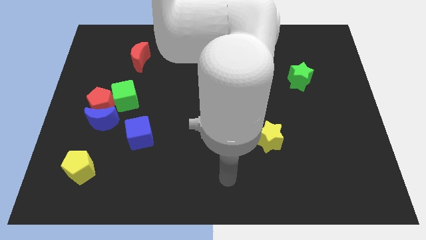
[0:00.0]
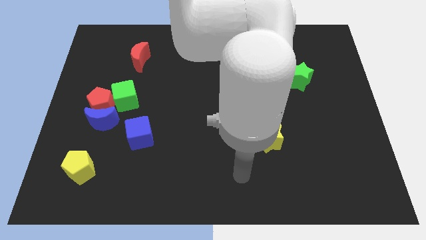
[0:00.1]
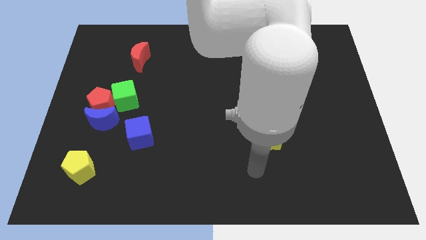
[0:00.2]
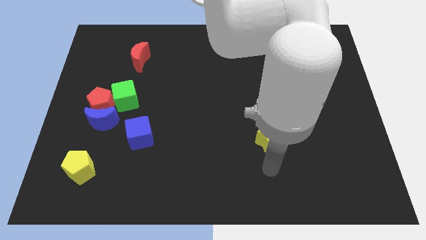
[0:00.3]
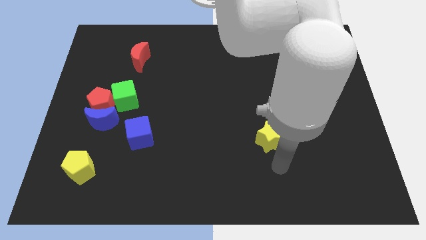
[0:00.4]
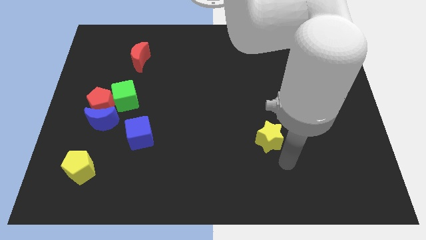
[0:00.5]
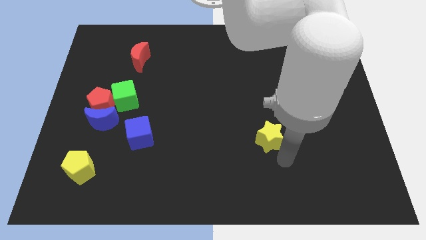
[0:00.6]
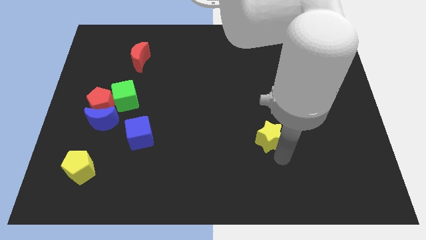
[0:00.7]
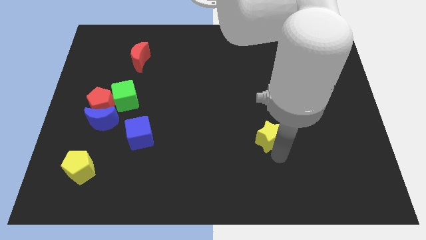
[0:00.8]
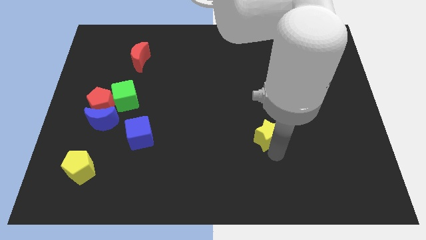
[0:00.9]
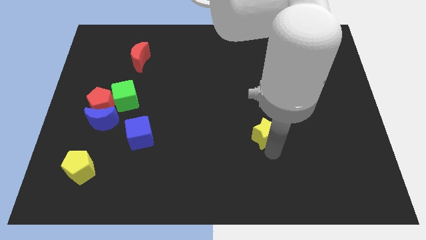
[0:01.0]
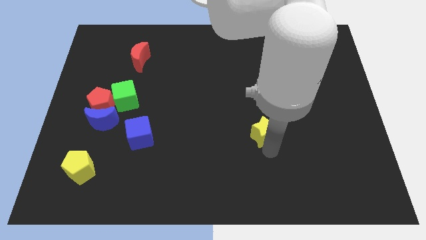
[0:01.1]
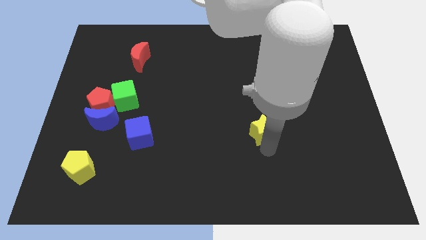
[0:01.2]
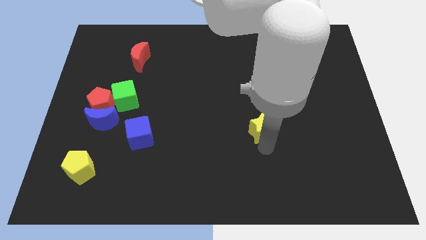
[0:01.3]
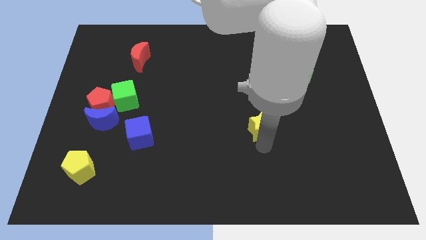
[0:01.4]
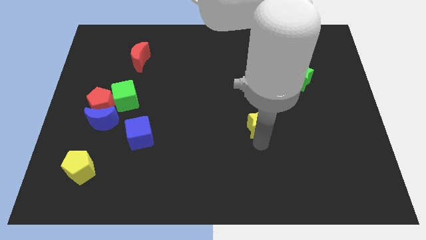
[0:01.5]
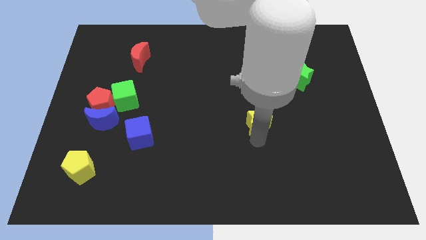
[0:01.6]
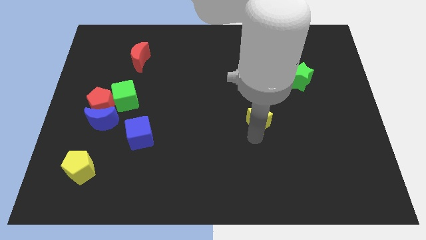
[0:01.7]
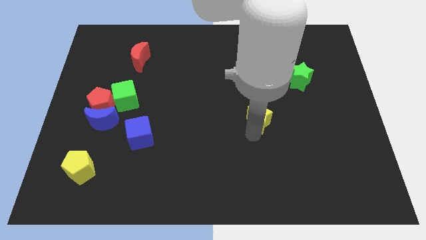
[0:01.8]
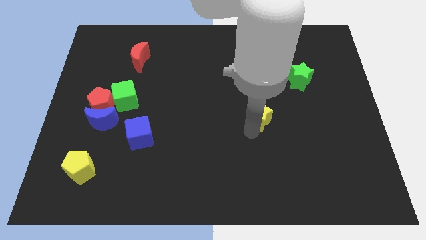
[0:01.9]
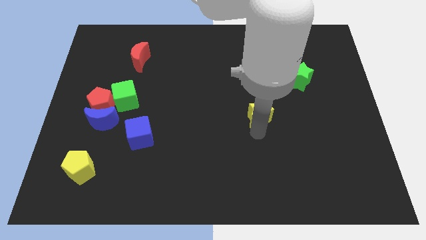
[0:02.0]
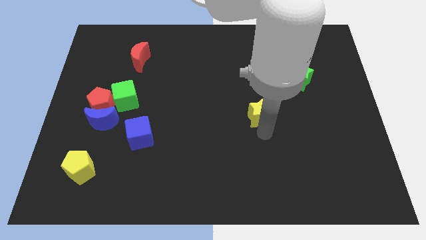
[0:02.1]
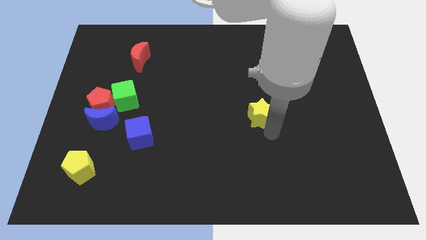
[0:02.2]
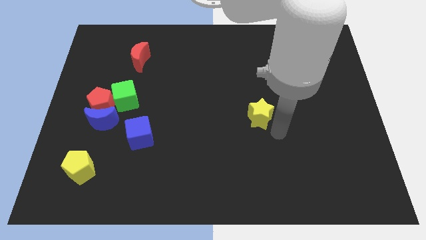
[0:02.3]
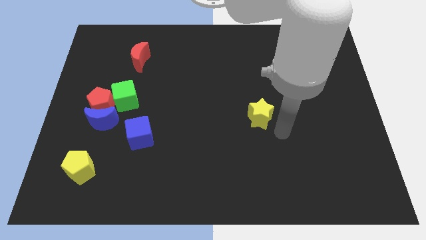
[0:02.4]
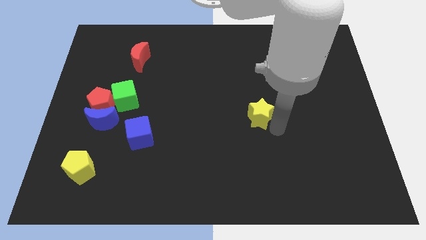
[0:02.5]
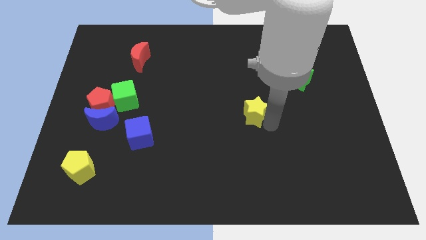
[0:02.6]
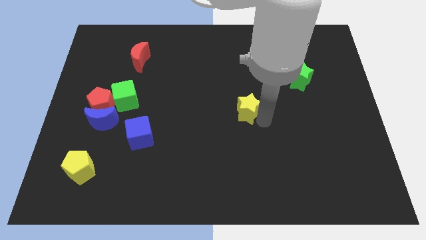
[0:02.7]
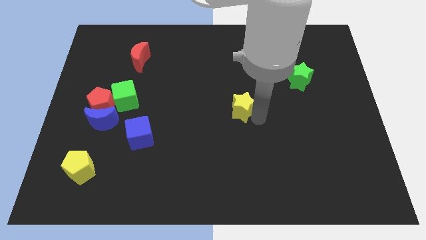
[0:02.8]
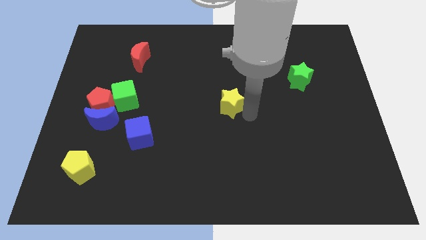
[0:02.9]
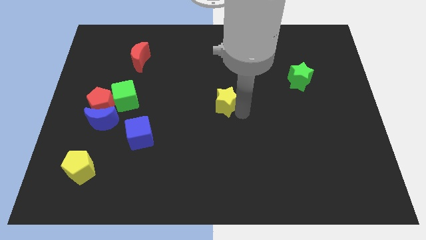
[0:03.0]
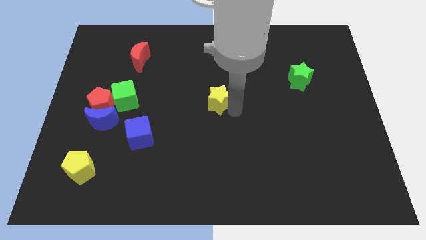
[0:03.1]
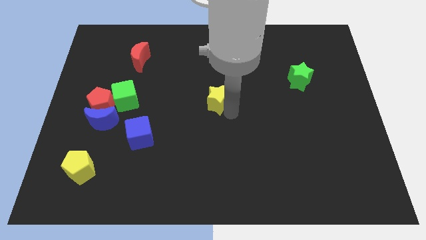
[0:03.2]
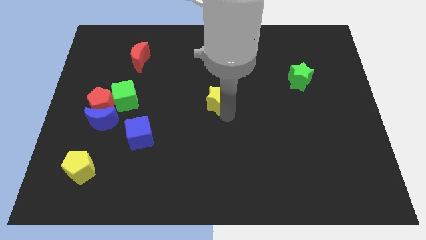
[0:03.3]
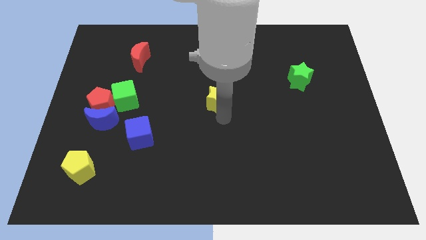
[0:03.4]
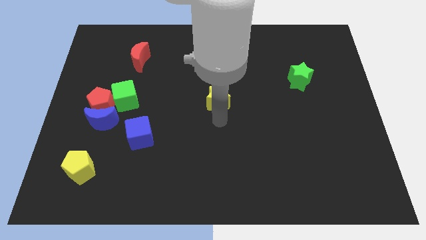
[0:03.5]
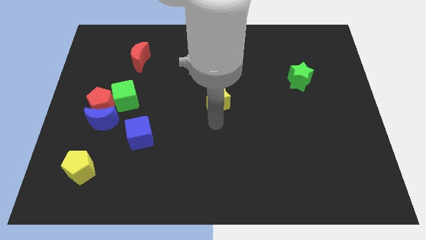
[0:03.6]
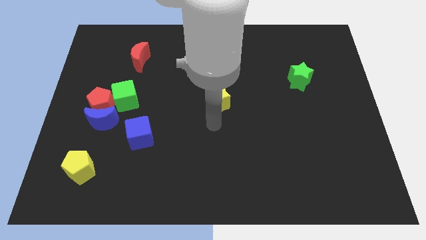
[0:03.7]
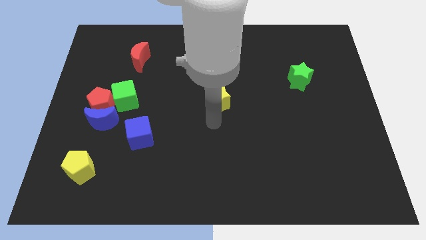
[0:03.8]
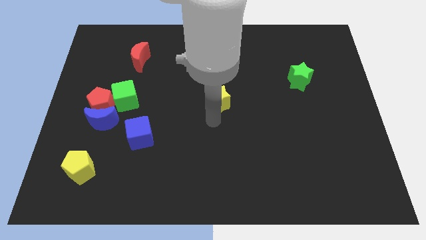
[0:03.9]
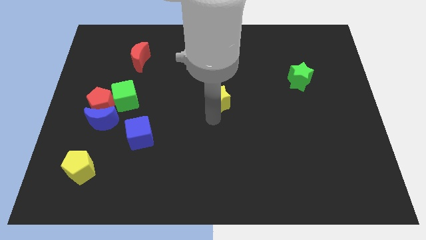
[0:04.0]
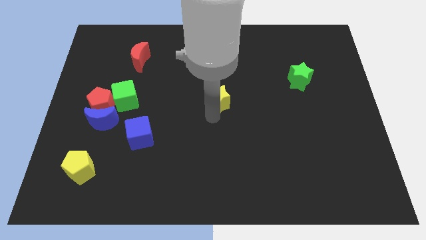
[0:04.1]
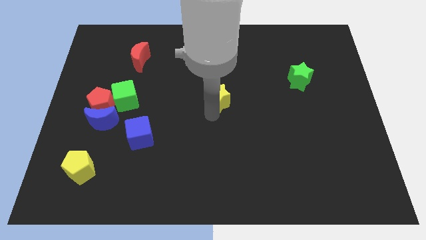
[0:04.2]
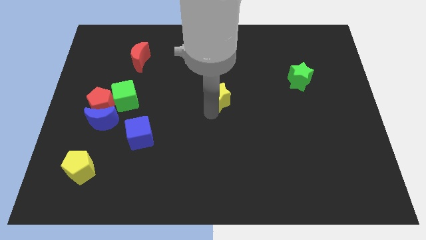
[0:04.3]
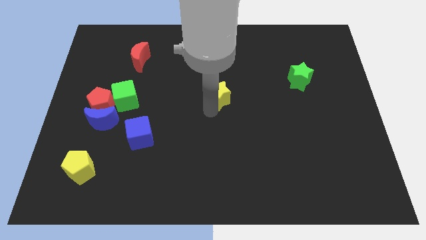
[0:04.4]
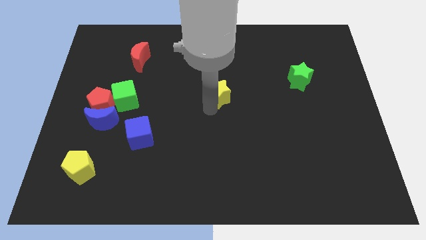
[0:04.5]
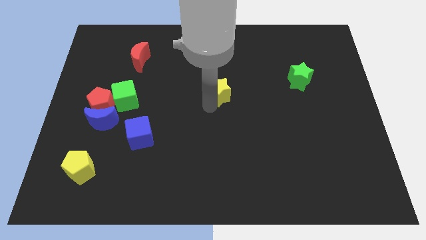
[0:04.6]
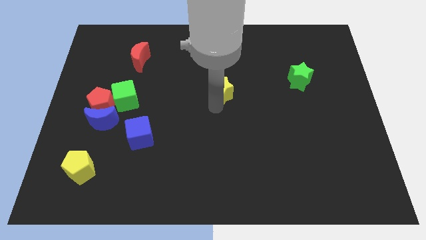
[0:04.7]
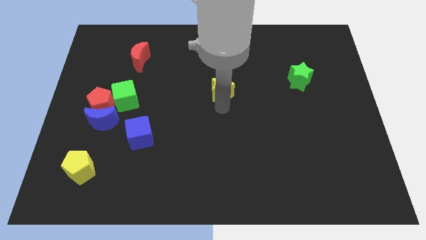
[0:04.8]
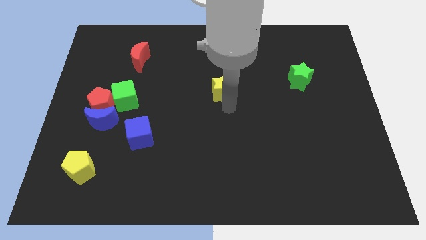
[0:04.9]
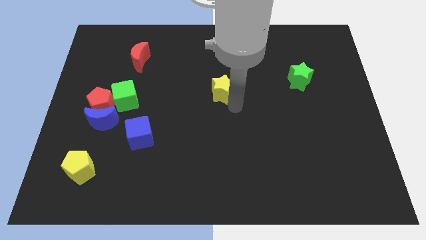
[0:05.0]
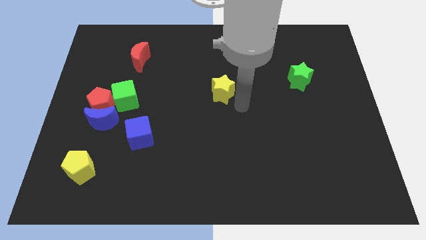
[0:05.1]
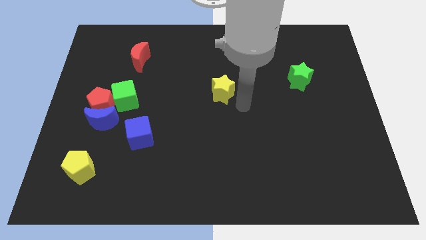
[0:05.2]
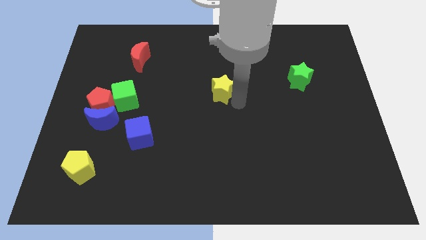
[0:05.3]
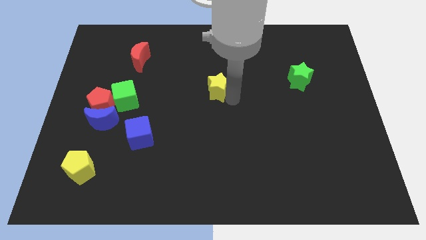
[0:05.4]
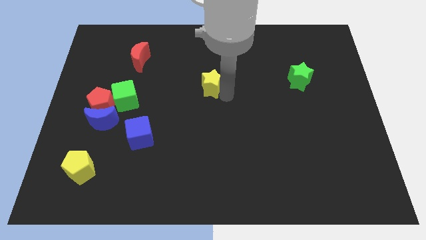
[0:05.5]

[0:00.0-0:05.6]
push the yellow star up and to the left diagonally

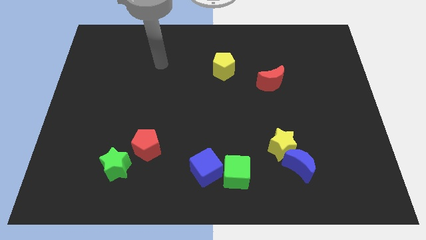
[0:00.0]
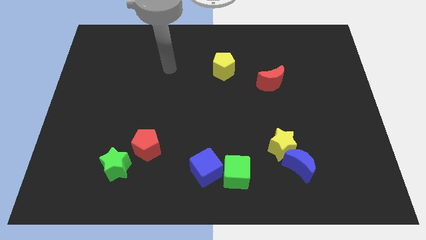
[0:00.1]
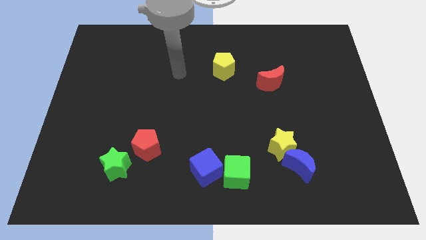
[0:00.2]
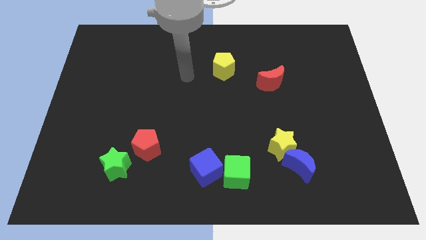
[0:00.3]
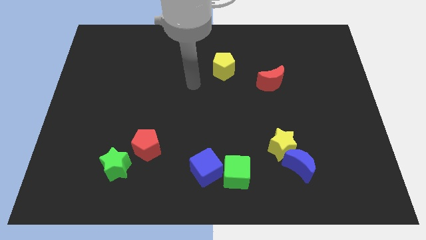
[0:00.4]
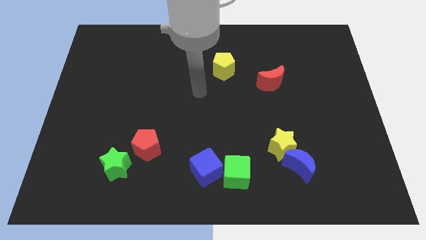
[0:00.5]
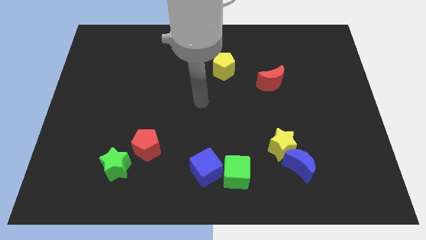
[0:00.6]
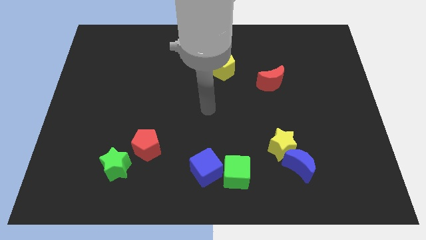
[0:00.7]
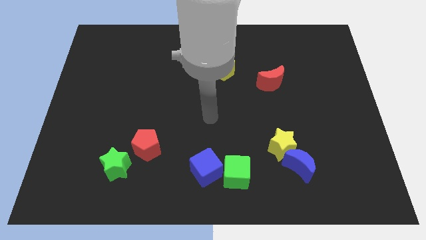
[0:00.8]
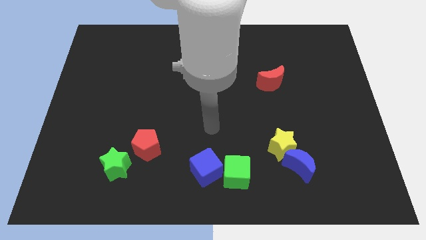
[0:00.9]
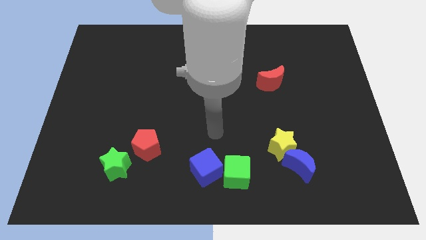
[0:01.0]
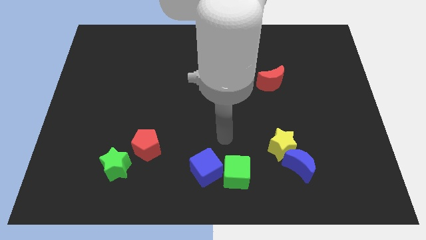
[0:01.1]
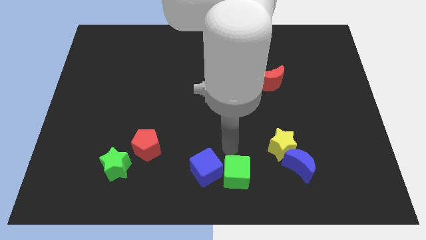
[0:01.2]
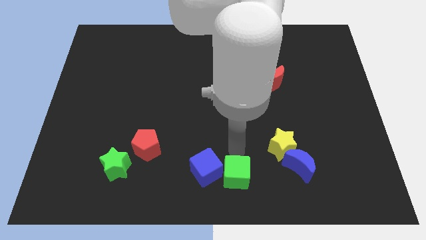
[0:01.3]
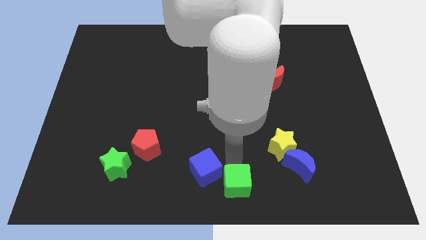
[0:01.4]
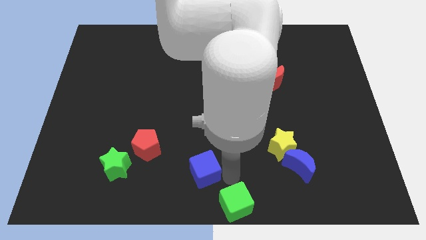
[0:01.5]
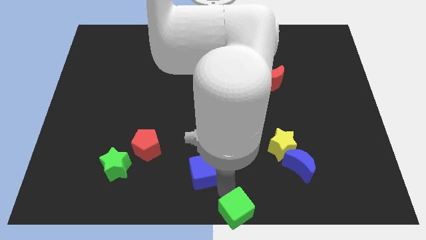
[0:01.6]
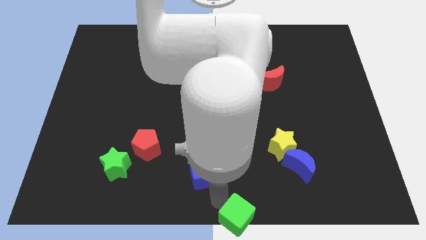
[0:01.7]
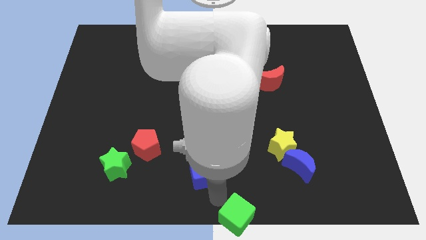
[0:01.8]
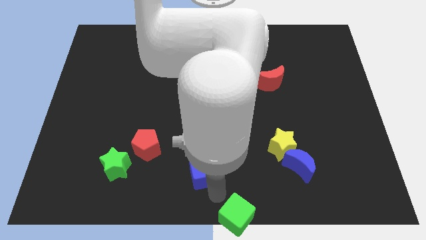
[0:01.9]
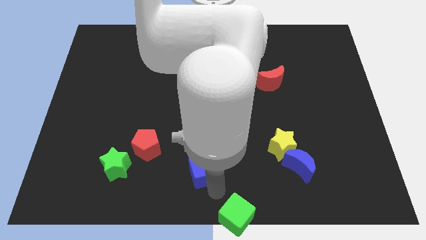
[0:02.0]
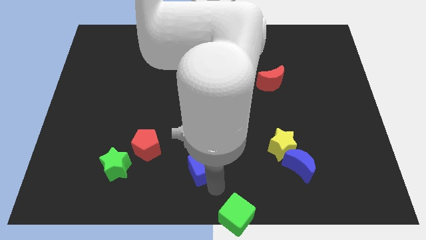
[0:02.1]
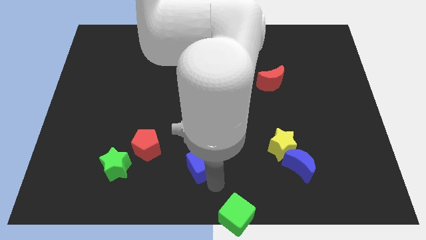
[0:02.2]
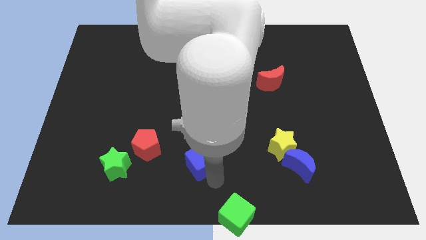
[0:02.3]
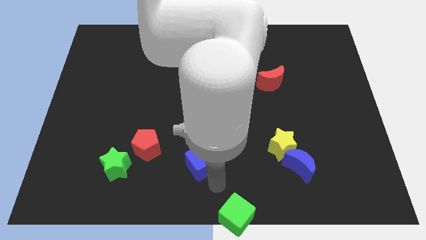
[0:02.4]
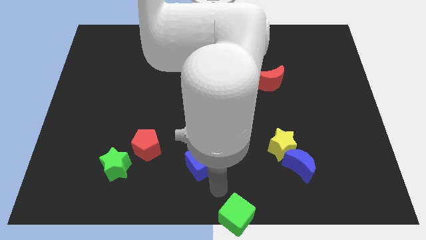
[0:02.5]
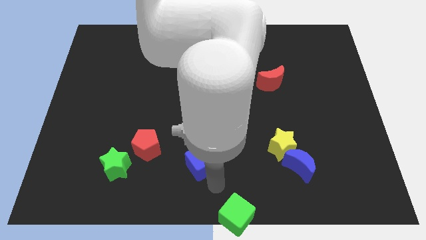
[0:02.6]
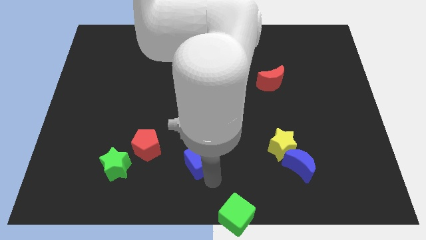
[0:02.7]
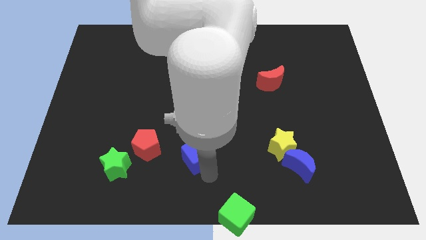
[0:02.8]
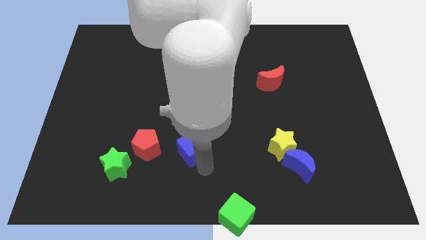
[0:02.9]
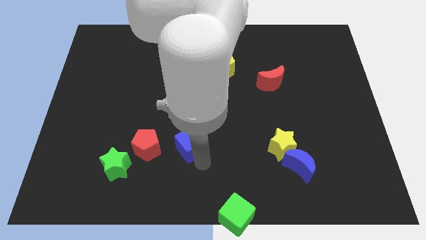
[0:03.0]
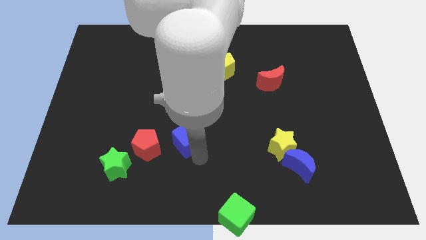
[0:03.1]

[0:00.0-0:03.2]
move the blue cube a bit diagonally up and to the left
